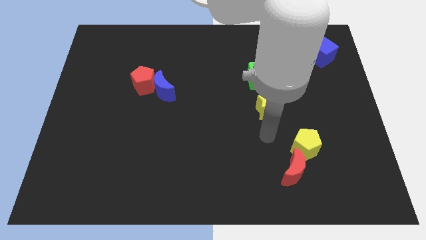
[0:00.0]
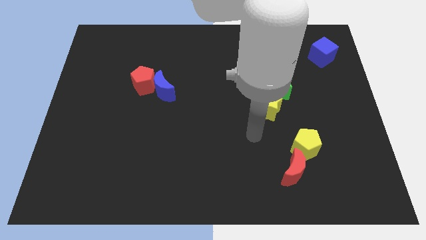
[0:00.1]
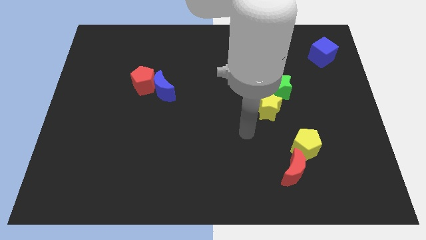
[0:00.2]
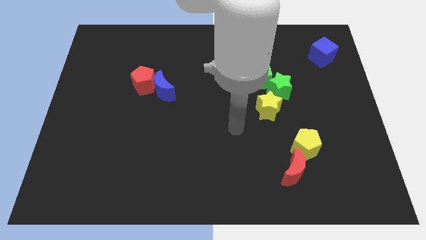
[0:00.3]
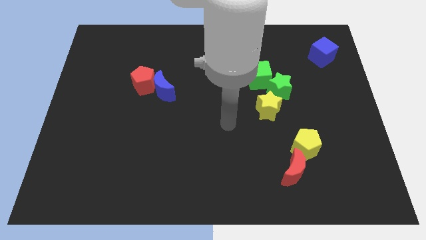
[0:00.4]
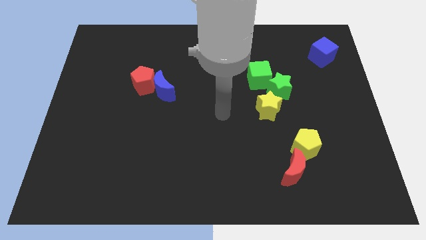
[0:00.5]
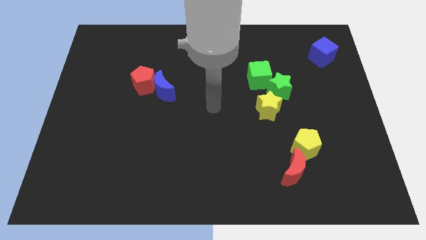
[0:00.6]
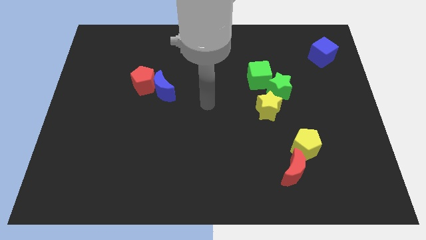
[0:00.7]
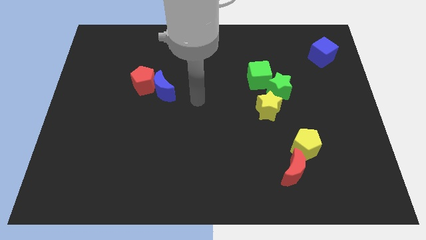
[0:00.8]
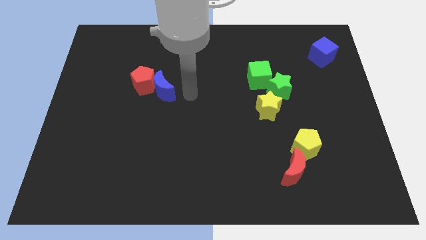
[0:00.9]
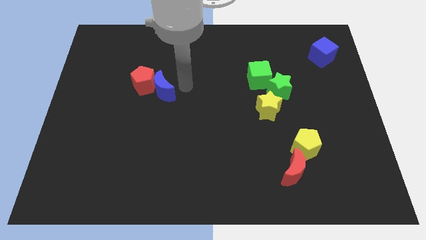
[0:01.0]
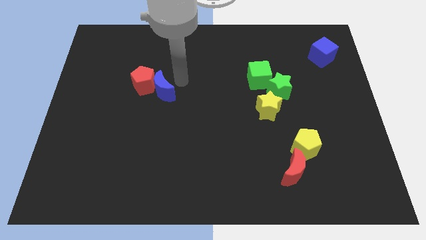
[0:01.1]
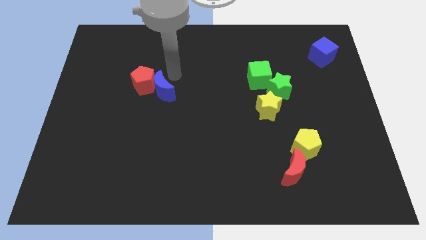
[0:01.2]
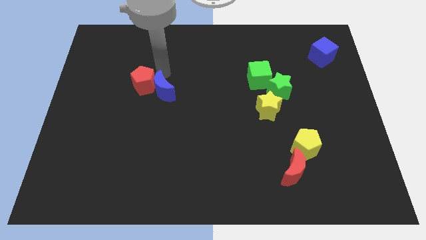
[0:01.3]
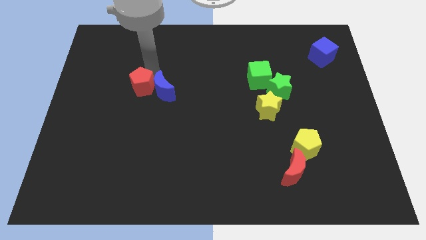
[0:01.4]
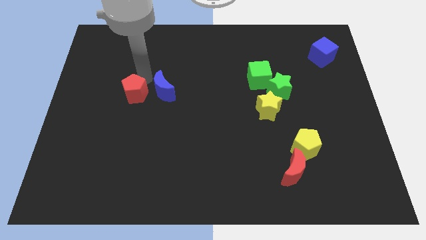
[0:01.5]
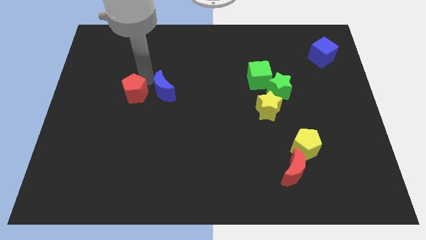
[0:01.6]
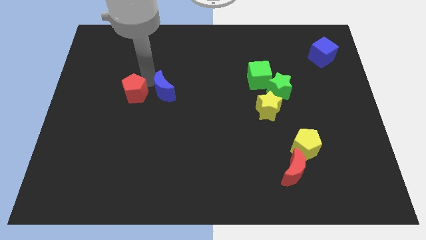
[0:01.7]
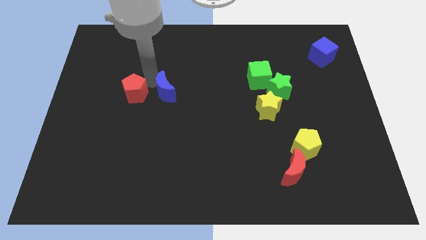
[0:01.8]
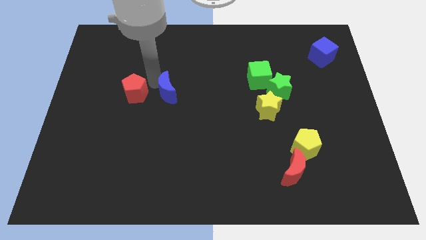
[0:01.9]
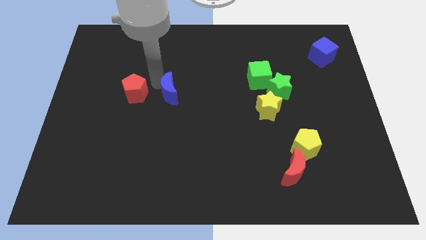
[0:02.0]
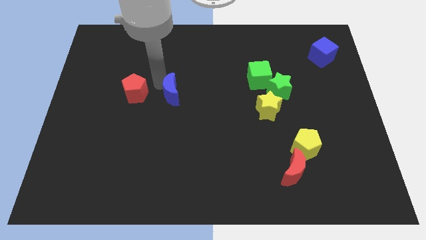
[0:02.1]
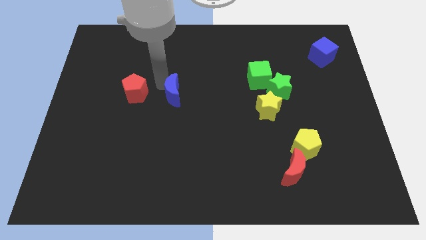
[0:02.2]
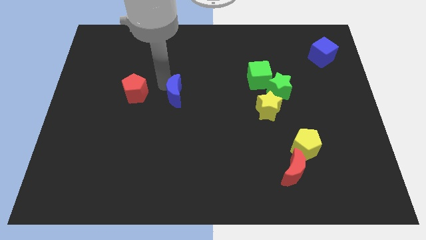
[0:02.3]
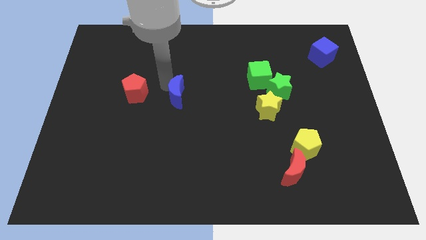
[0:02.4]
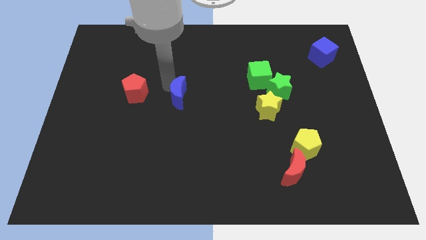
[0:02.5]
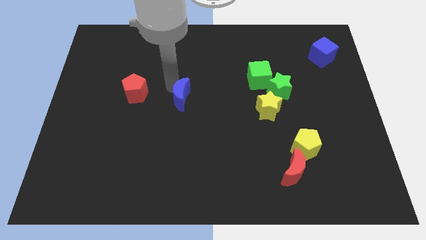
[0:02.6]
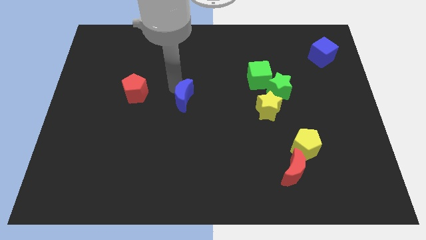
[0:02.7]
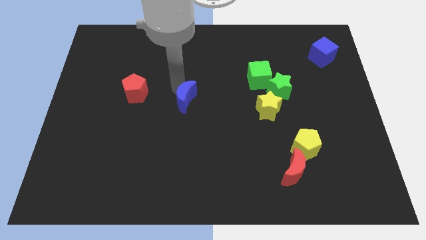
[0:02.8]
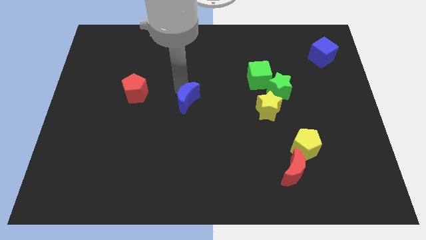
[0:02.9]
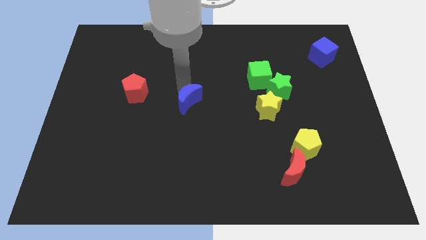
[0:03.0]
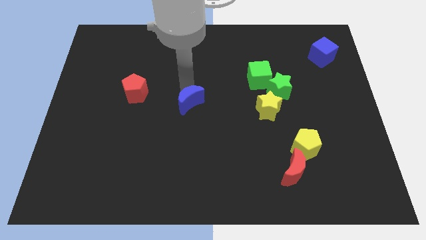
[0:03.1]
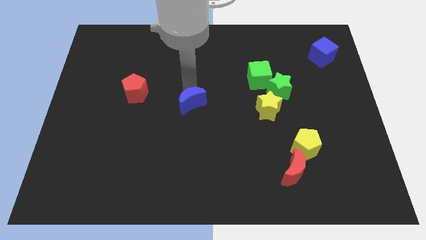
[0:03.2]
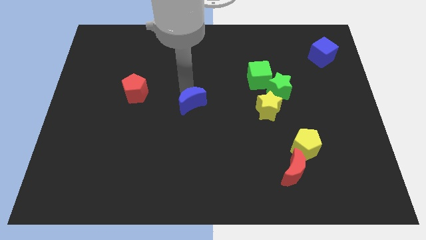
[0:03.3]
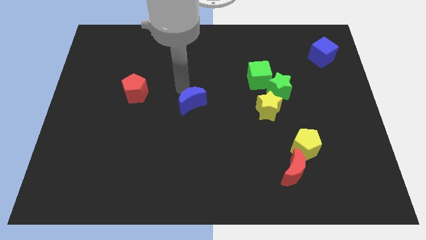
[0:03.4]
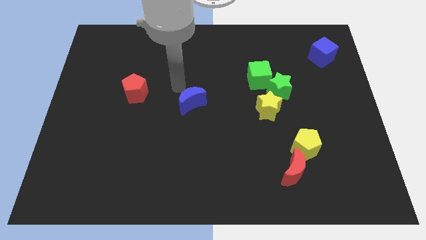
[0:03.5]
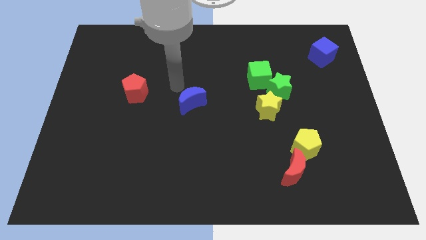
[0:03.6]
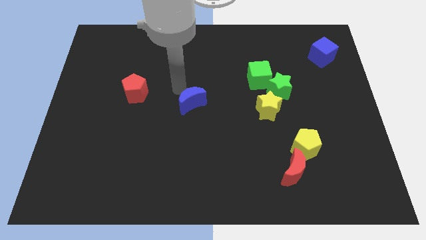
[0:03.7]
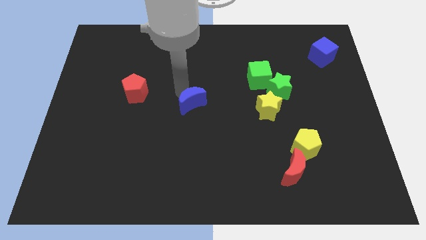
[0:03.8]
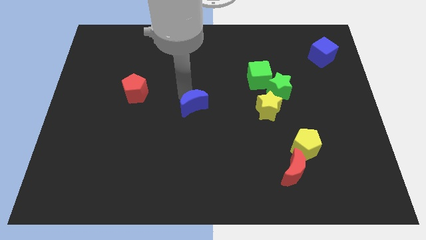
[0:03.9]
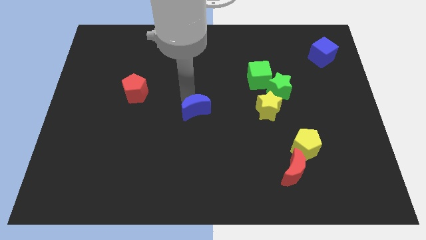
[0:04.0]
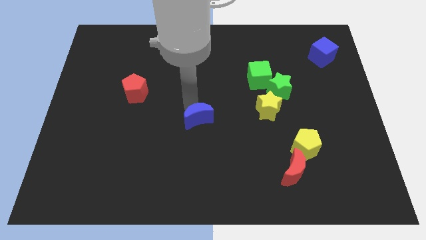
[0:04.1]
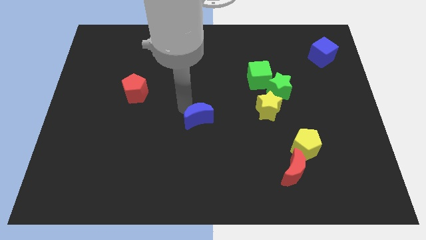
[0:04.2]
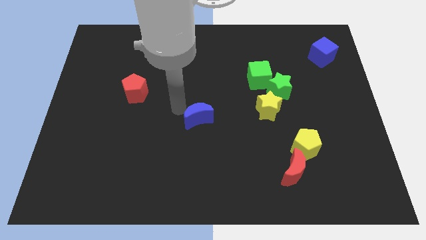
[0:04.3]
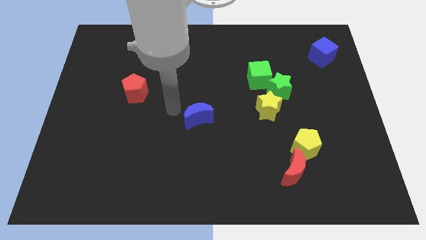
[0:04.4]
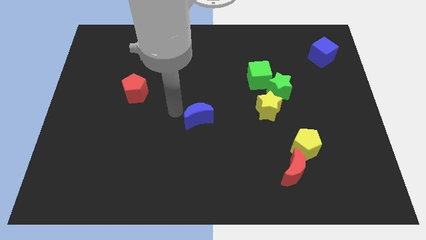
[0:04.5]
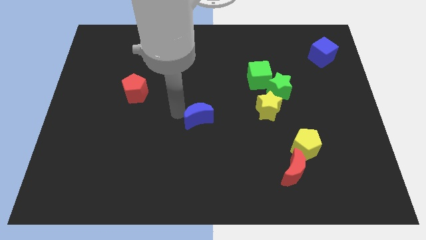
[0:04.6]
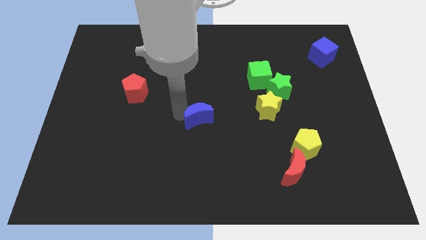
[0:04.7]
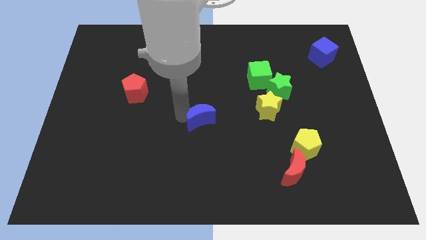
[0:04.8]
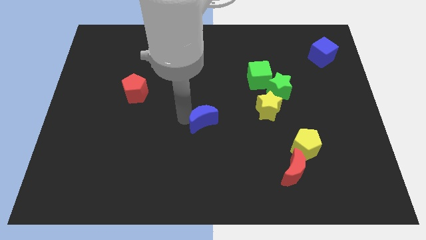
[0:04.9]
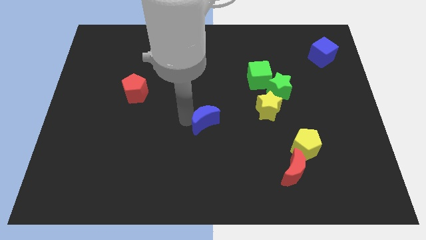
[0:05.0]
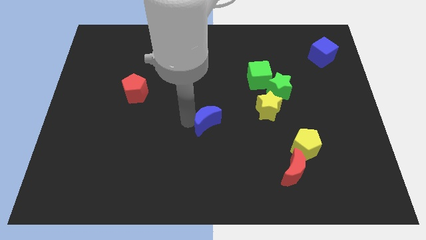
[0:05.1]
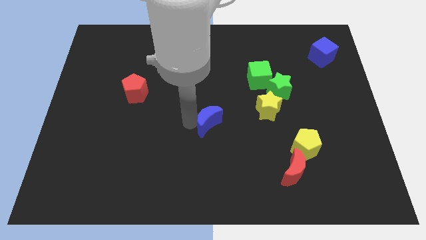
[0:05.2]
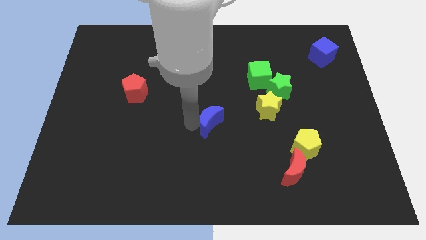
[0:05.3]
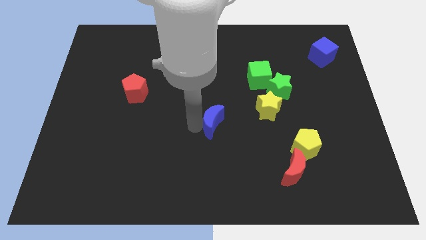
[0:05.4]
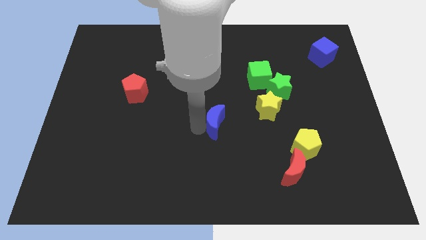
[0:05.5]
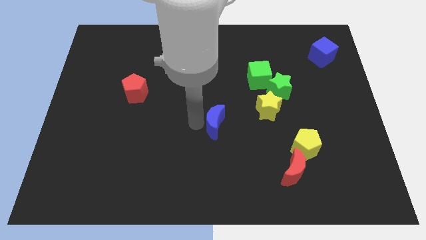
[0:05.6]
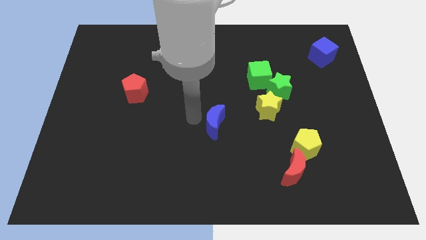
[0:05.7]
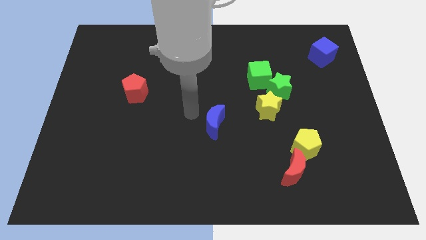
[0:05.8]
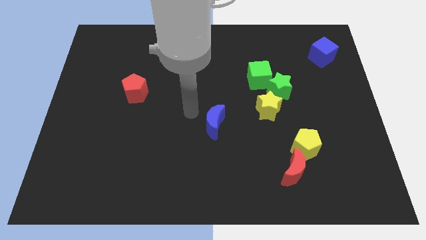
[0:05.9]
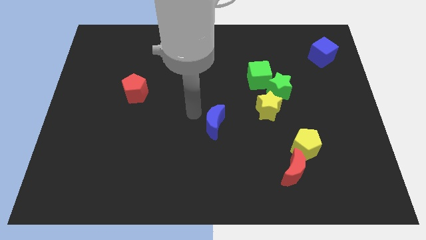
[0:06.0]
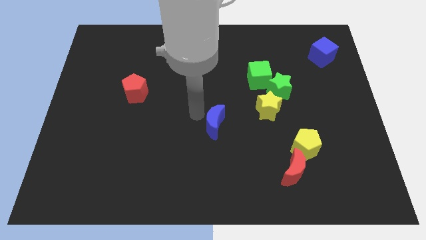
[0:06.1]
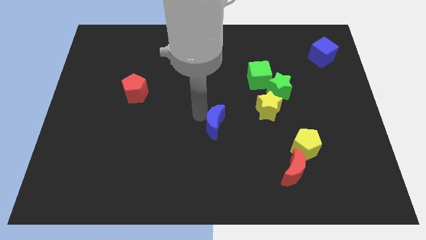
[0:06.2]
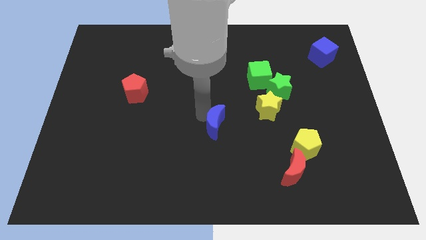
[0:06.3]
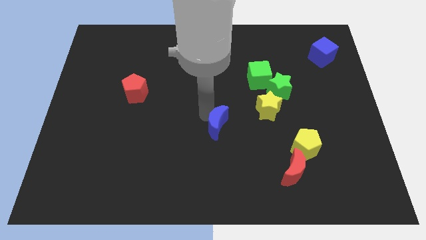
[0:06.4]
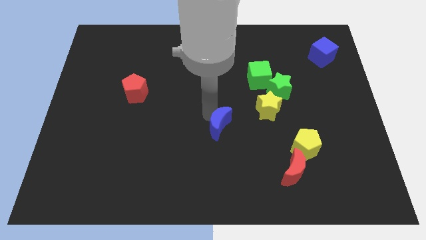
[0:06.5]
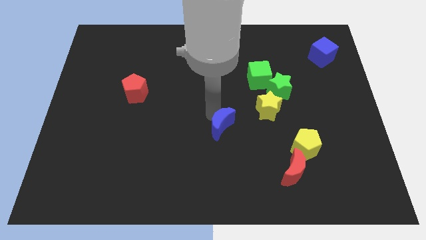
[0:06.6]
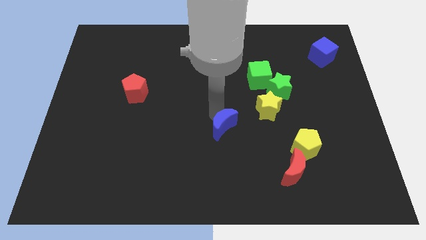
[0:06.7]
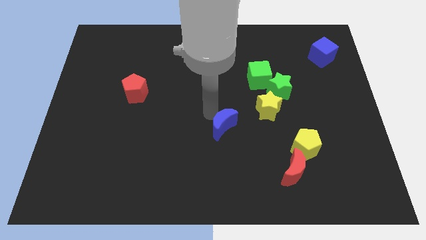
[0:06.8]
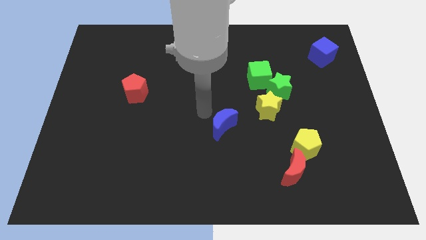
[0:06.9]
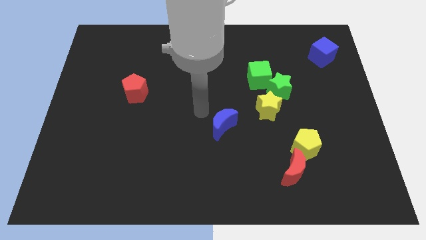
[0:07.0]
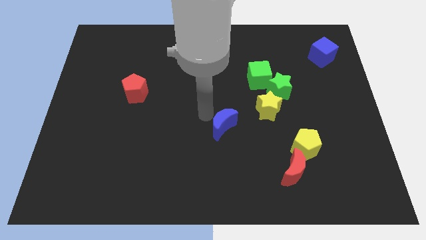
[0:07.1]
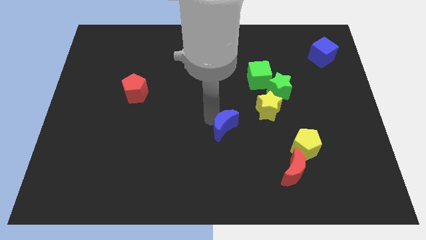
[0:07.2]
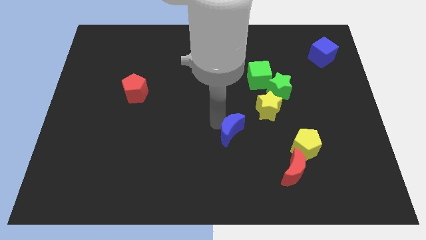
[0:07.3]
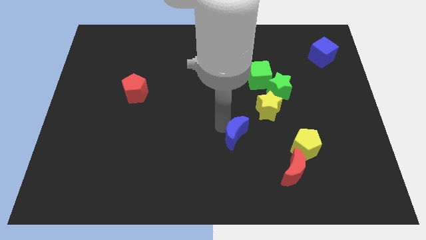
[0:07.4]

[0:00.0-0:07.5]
slide the blue moon down and to the right diagonally

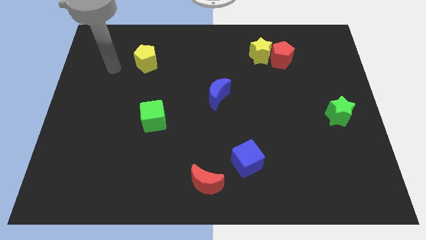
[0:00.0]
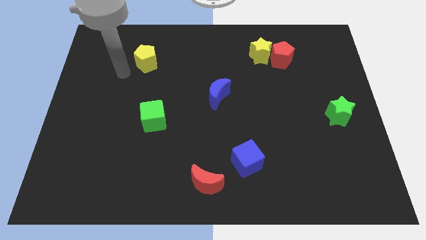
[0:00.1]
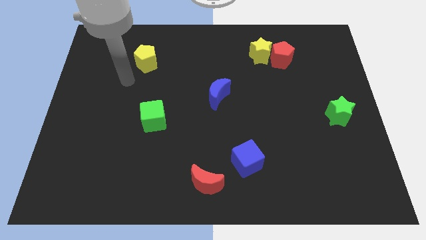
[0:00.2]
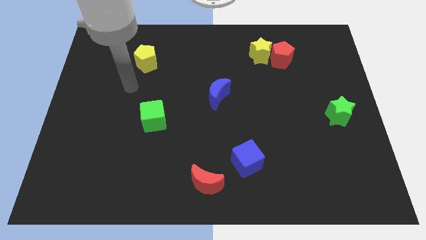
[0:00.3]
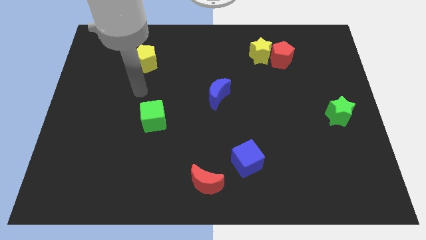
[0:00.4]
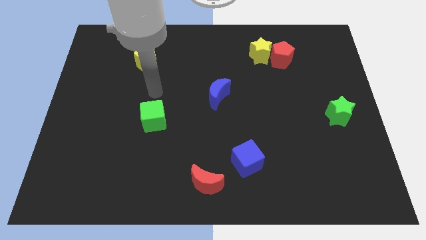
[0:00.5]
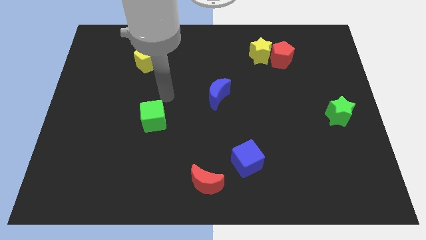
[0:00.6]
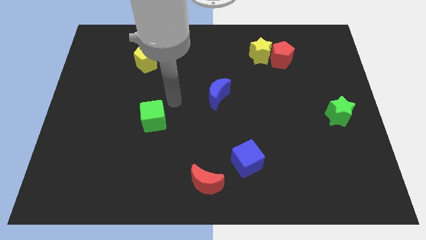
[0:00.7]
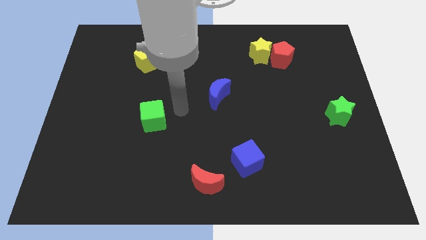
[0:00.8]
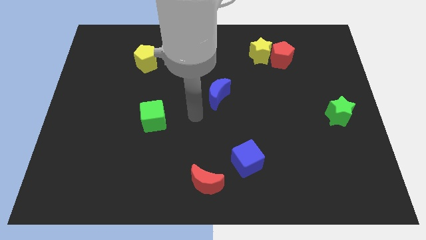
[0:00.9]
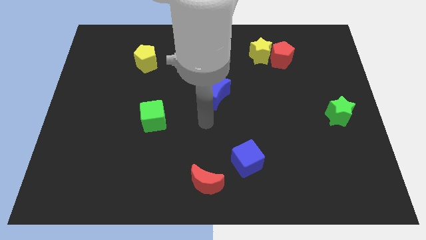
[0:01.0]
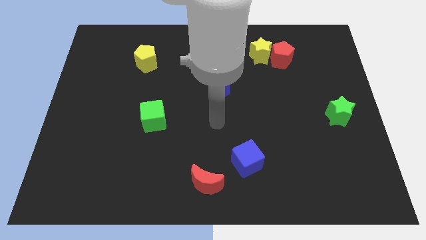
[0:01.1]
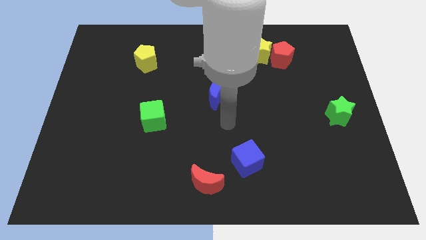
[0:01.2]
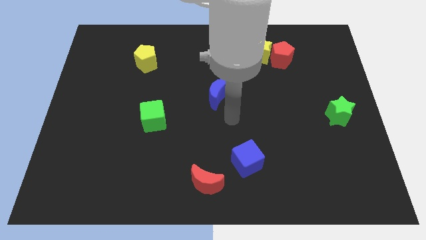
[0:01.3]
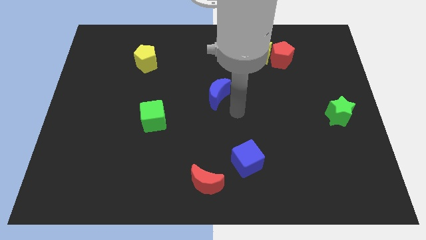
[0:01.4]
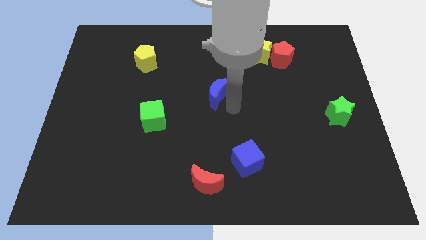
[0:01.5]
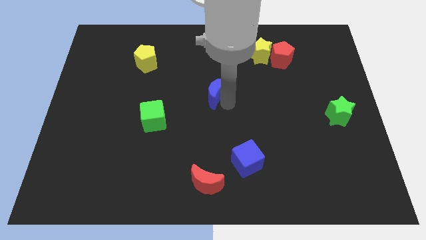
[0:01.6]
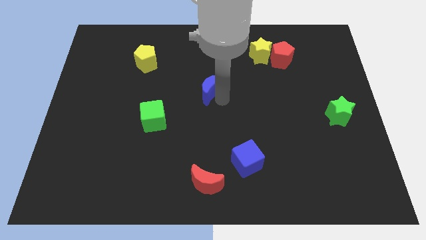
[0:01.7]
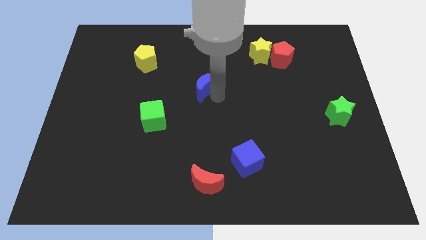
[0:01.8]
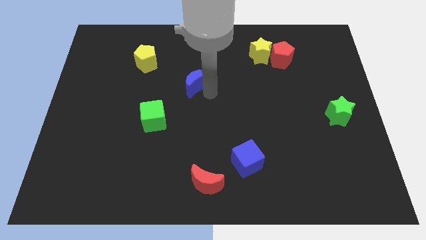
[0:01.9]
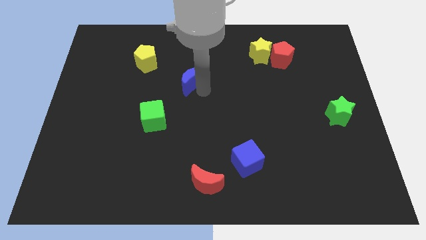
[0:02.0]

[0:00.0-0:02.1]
slightly slide the blue moon upwards and left diagonally
